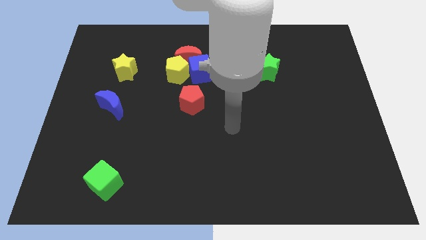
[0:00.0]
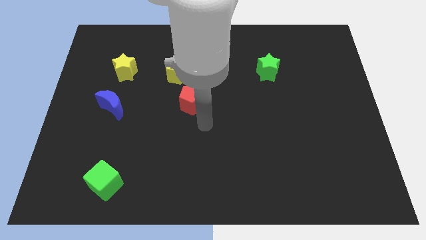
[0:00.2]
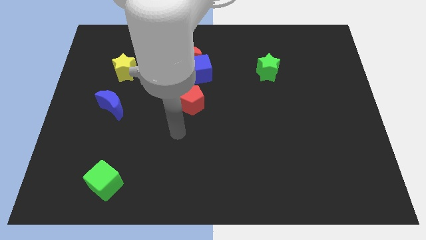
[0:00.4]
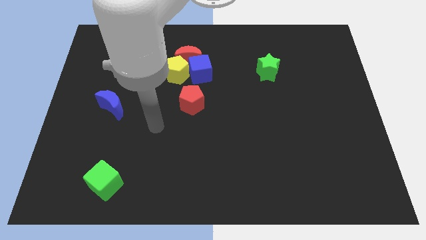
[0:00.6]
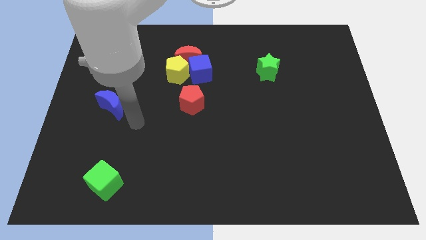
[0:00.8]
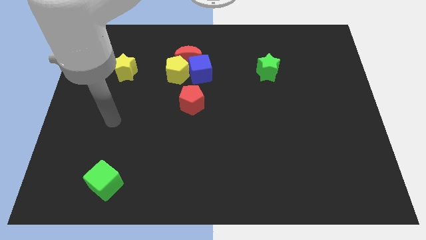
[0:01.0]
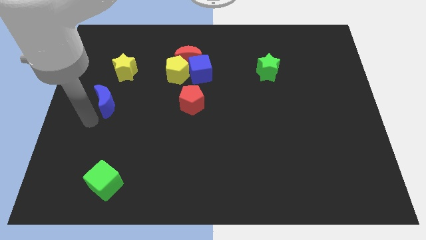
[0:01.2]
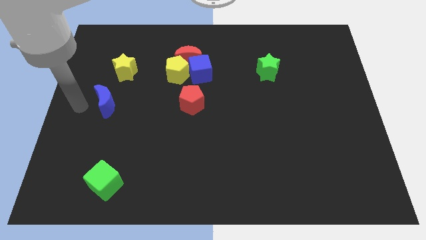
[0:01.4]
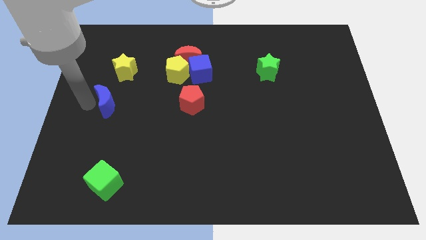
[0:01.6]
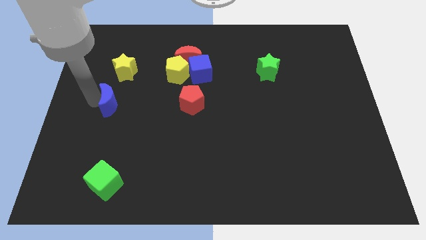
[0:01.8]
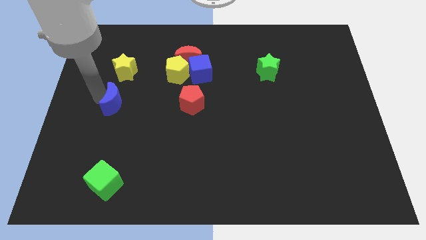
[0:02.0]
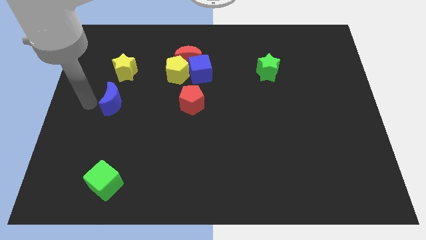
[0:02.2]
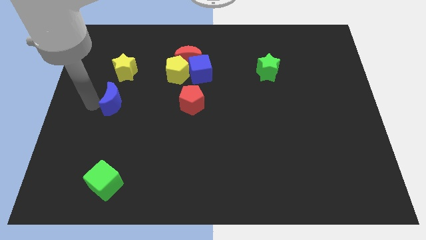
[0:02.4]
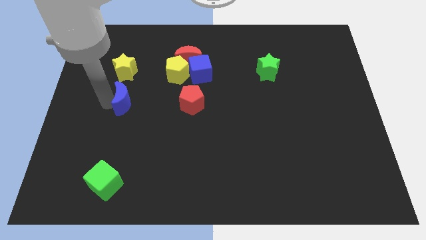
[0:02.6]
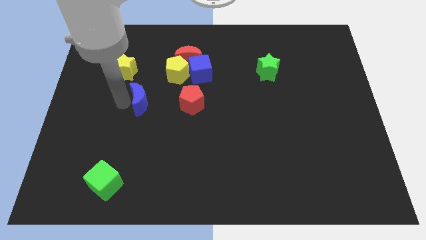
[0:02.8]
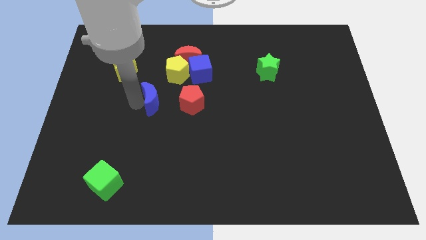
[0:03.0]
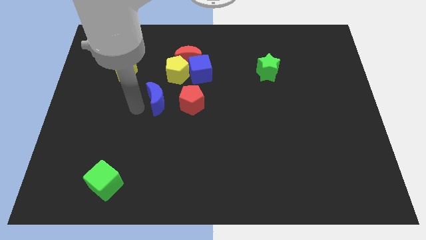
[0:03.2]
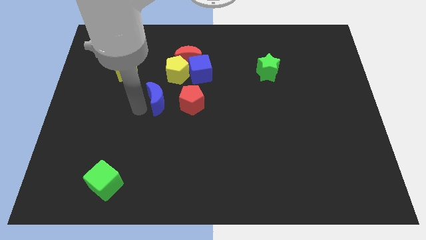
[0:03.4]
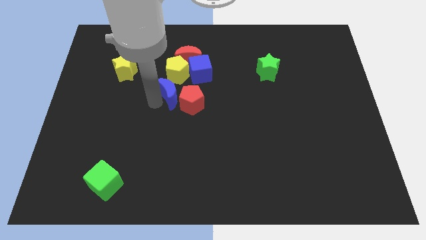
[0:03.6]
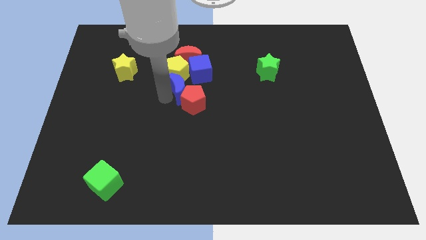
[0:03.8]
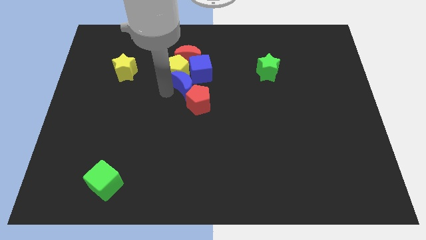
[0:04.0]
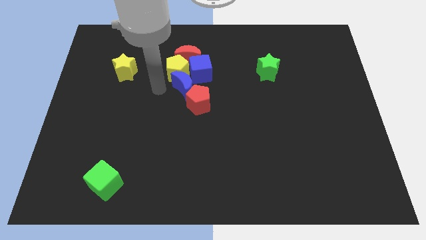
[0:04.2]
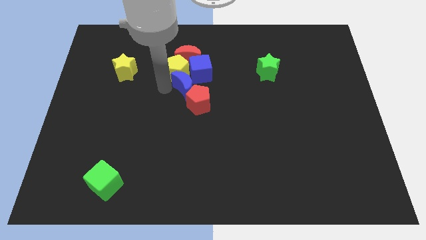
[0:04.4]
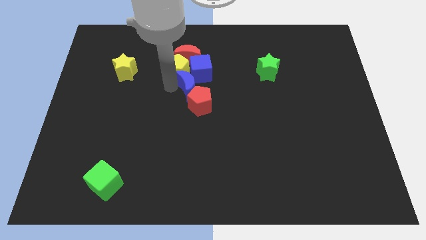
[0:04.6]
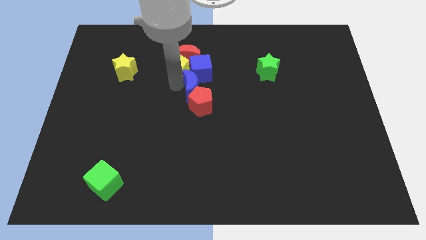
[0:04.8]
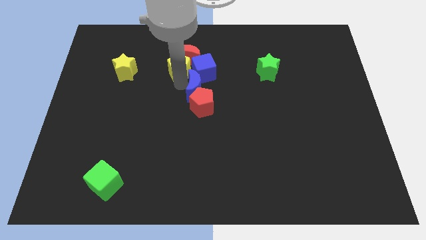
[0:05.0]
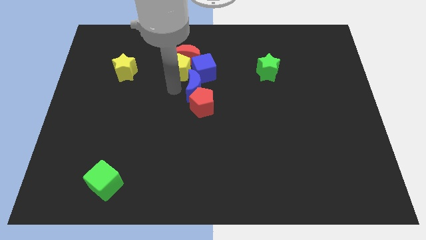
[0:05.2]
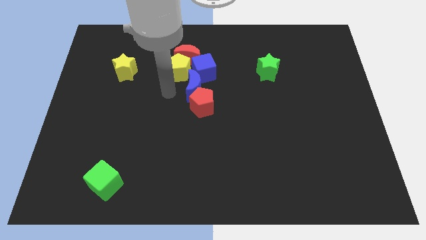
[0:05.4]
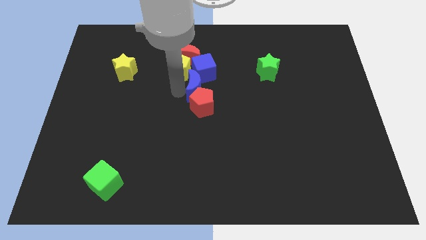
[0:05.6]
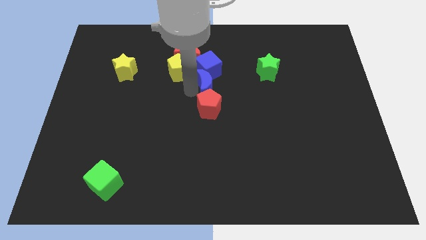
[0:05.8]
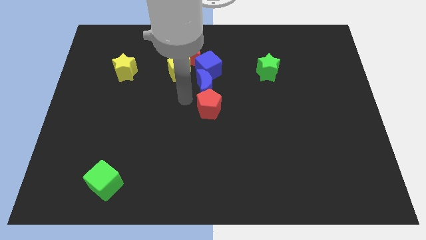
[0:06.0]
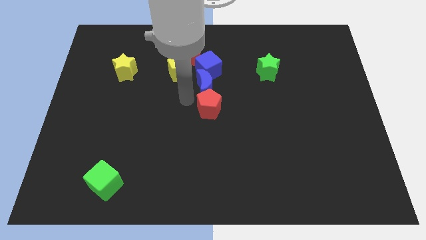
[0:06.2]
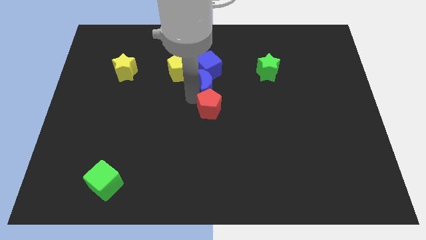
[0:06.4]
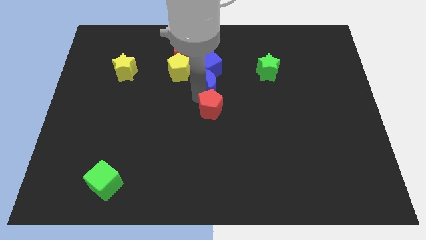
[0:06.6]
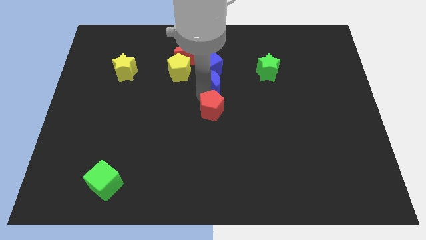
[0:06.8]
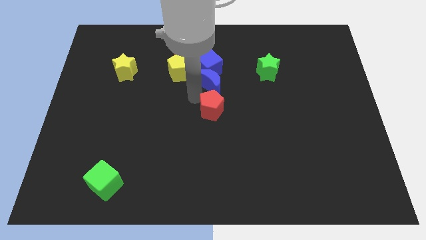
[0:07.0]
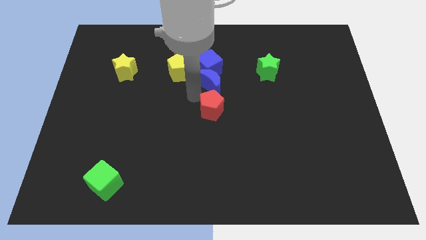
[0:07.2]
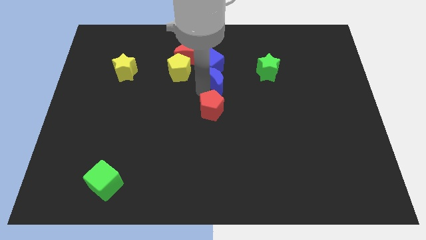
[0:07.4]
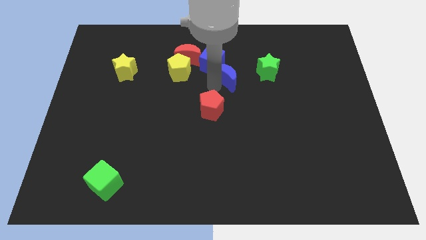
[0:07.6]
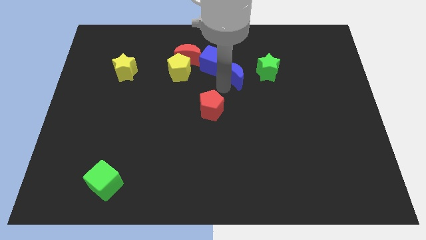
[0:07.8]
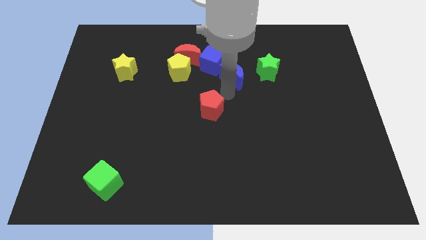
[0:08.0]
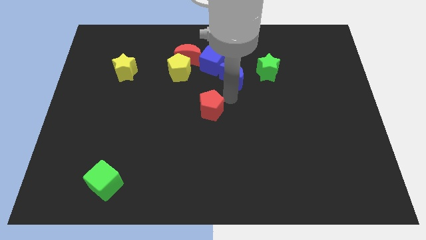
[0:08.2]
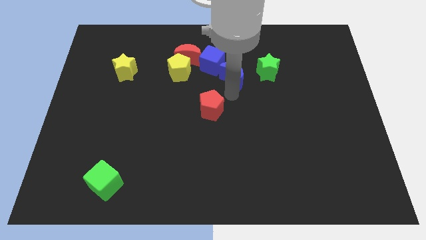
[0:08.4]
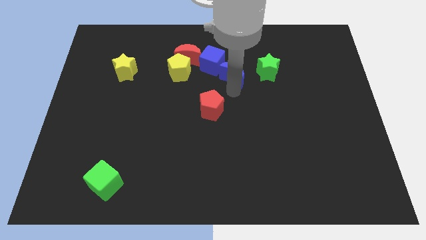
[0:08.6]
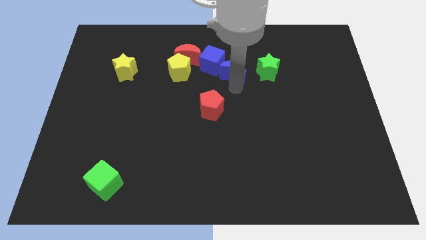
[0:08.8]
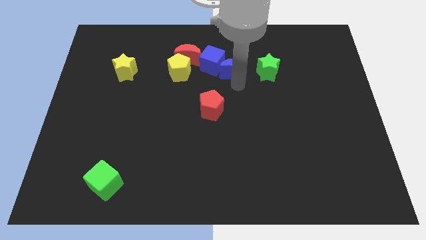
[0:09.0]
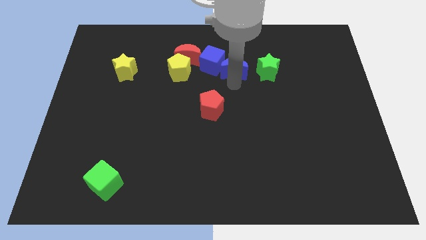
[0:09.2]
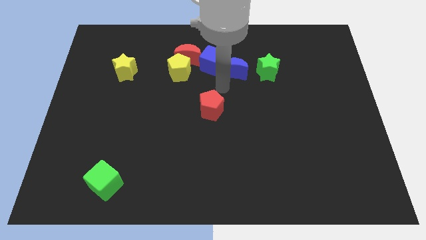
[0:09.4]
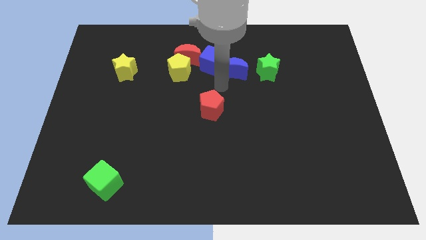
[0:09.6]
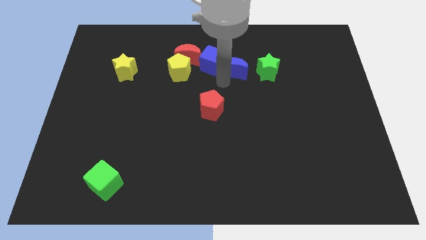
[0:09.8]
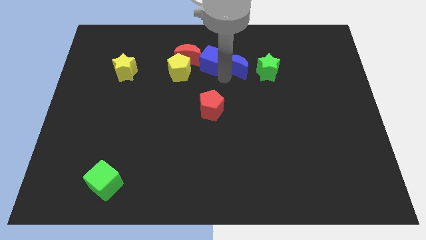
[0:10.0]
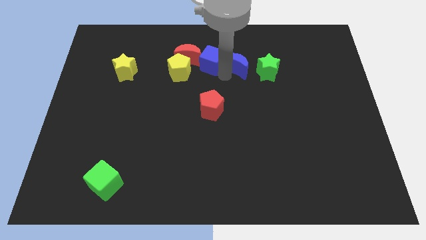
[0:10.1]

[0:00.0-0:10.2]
put the blue moon to the top left side of the green star

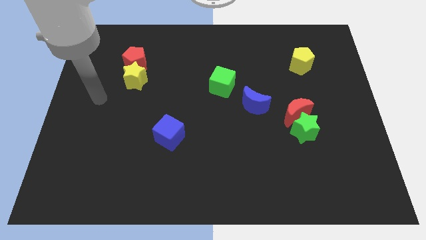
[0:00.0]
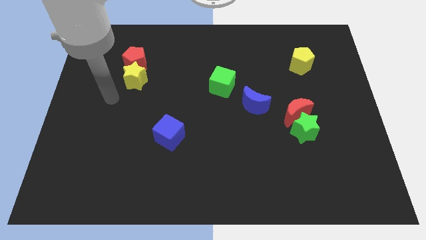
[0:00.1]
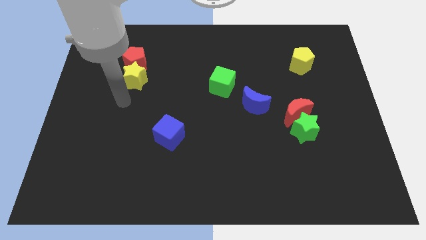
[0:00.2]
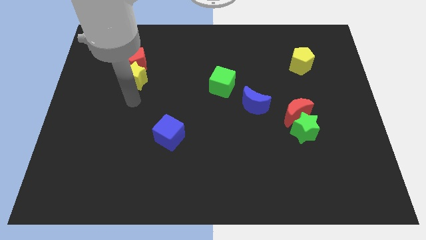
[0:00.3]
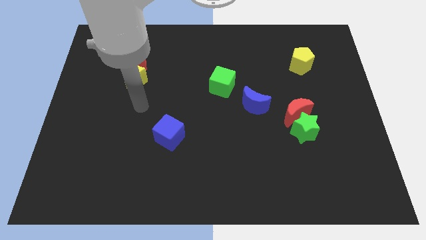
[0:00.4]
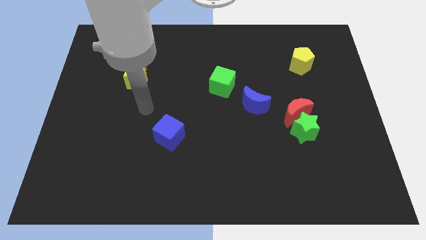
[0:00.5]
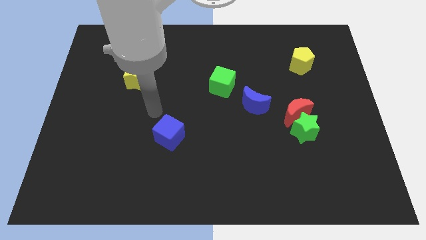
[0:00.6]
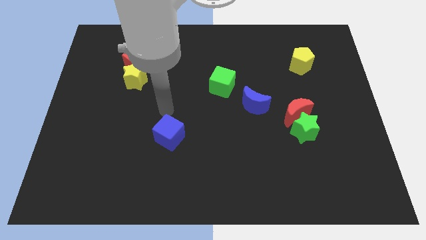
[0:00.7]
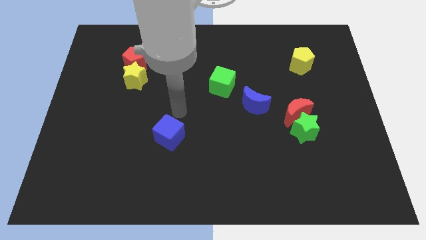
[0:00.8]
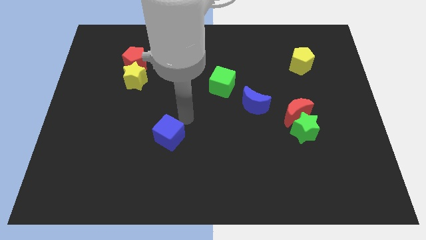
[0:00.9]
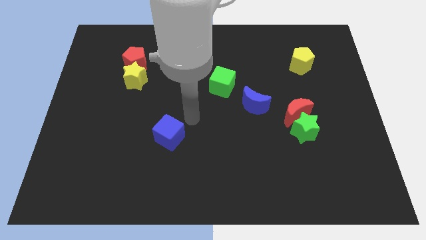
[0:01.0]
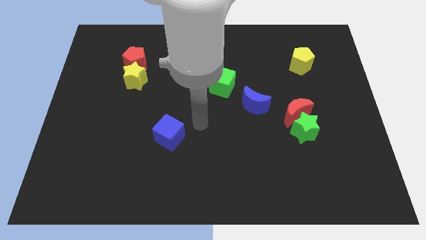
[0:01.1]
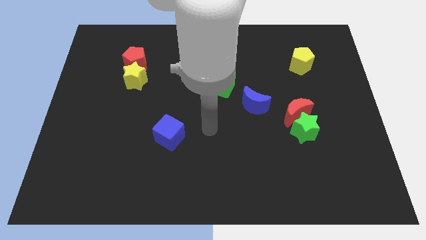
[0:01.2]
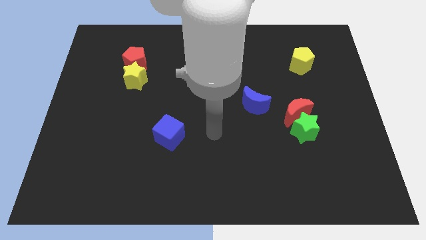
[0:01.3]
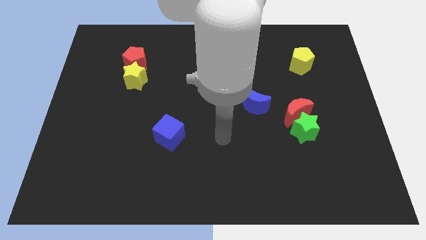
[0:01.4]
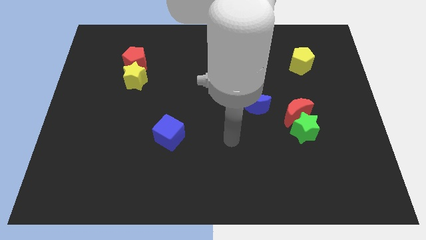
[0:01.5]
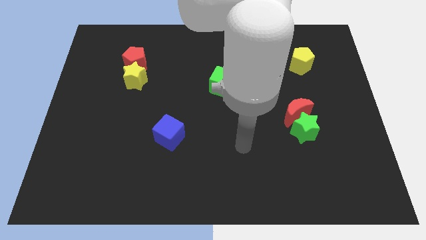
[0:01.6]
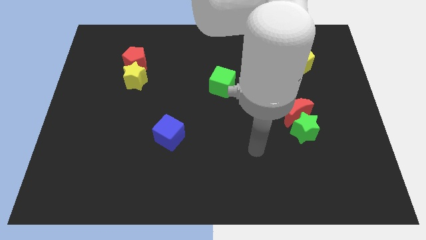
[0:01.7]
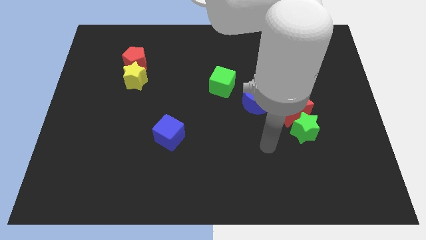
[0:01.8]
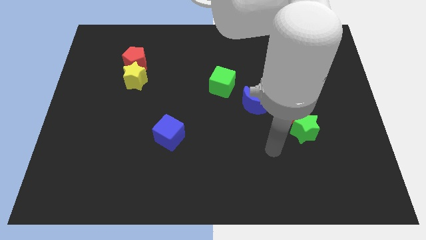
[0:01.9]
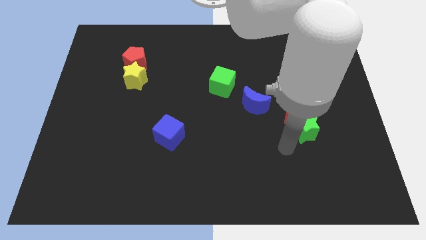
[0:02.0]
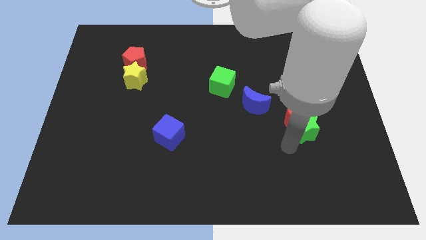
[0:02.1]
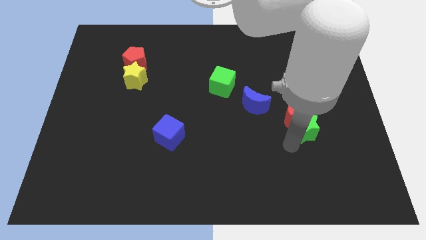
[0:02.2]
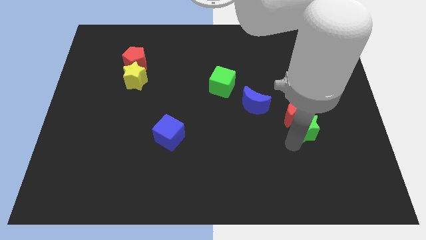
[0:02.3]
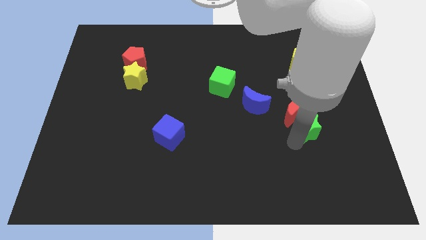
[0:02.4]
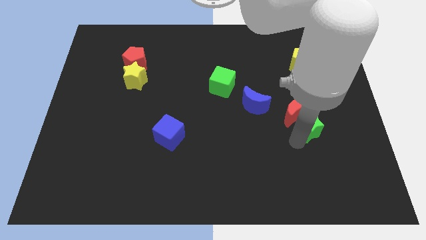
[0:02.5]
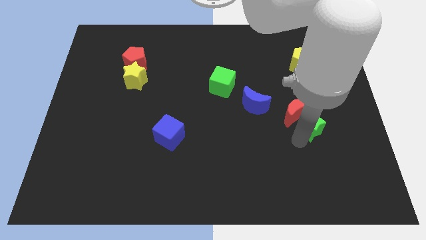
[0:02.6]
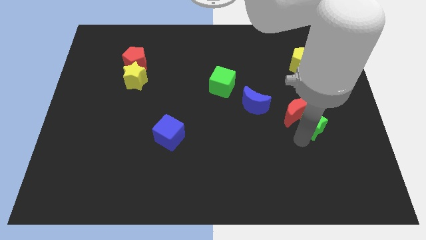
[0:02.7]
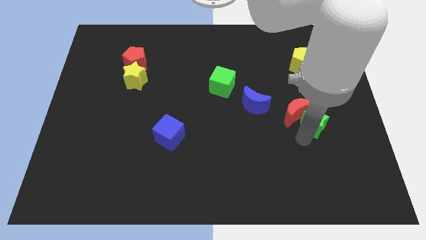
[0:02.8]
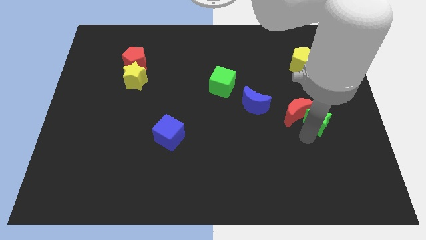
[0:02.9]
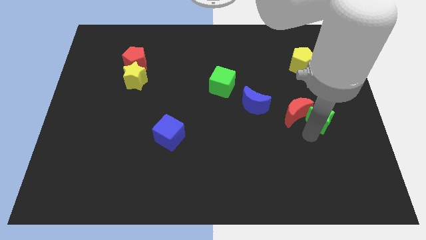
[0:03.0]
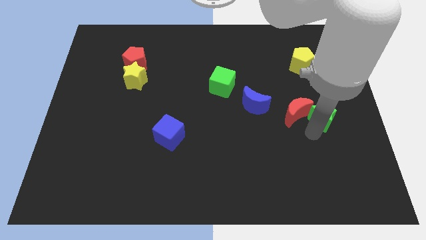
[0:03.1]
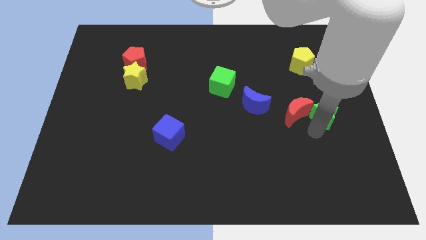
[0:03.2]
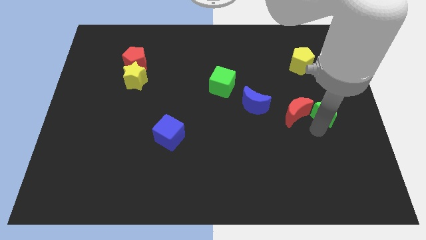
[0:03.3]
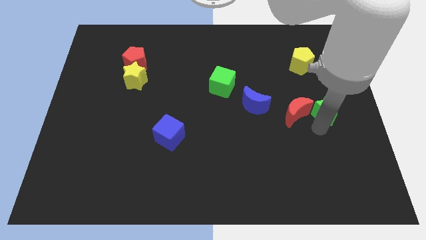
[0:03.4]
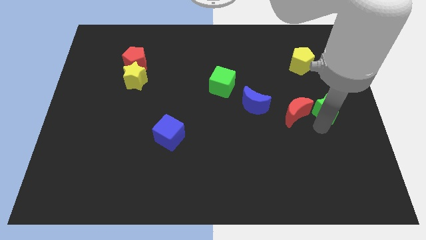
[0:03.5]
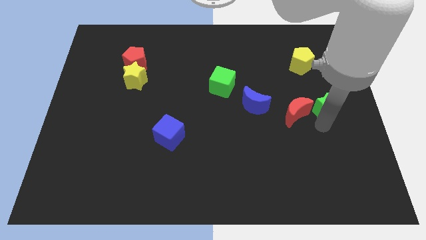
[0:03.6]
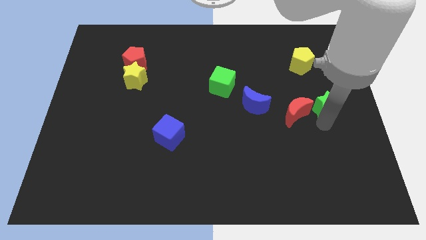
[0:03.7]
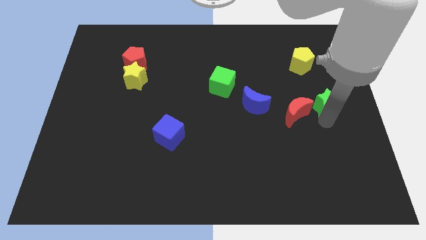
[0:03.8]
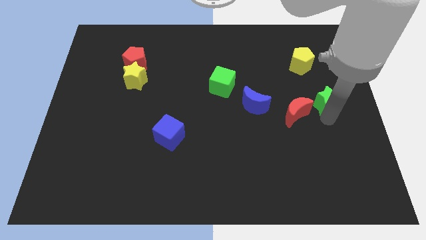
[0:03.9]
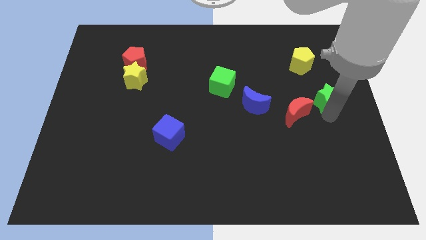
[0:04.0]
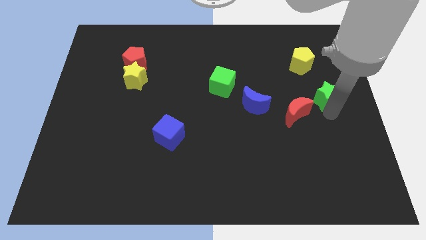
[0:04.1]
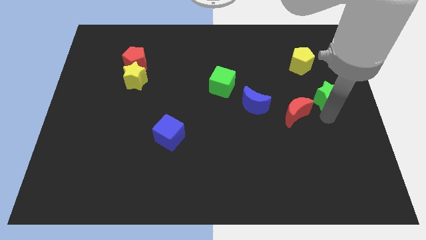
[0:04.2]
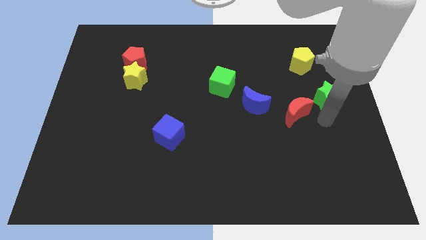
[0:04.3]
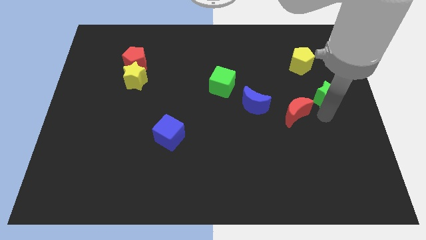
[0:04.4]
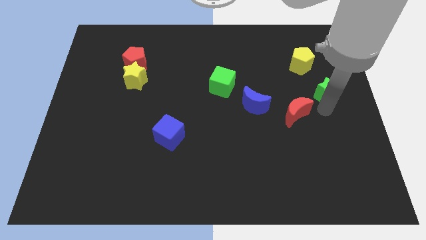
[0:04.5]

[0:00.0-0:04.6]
push the green star to the bottom right of the yellow pentagon
